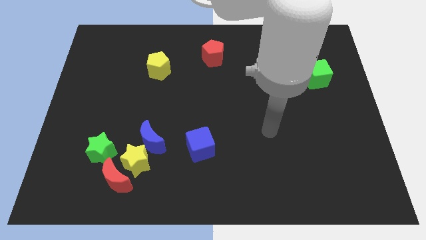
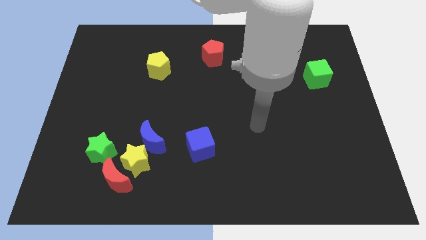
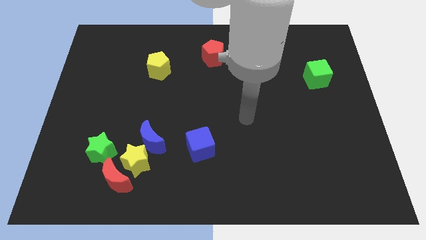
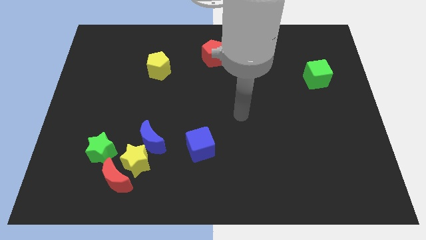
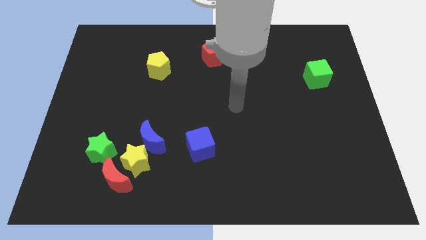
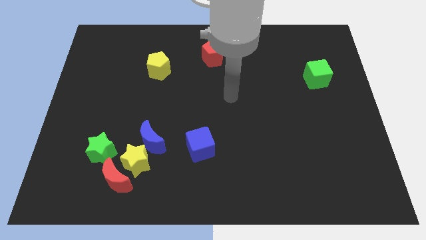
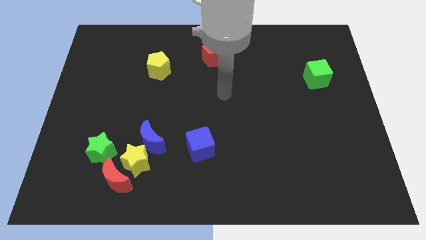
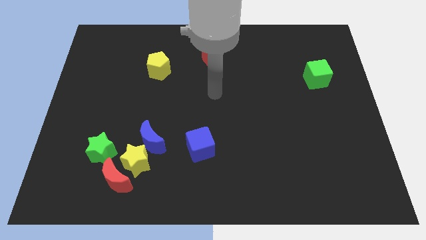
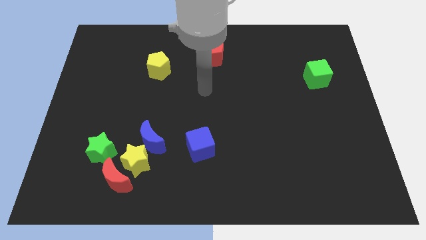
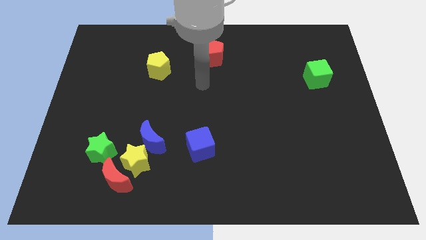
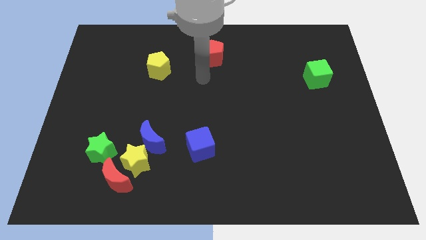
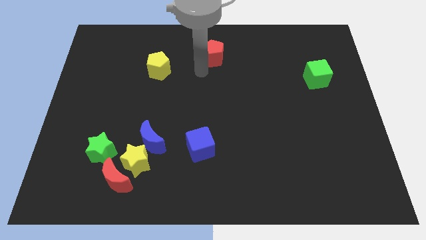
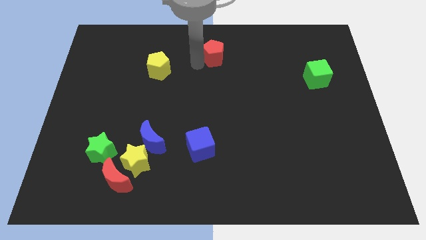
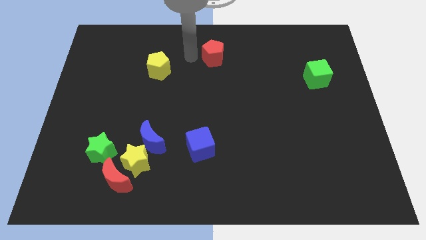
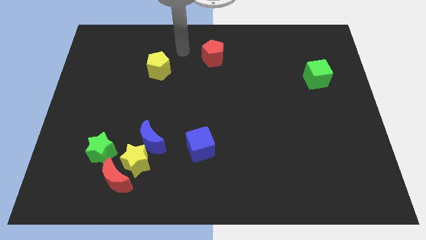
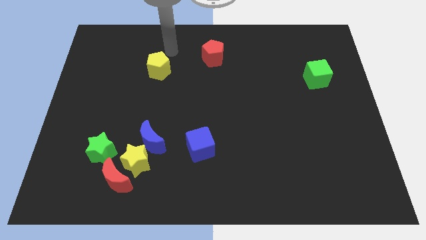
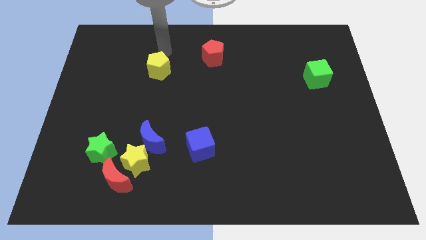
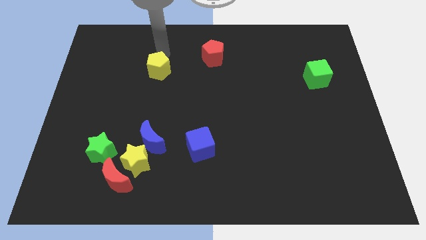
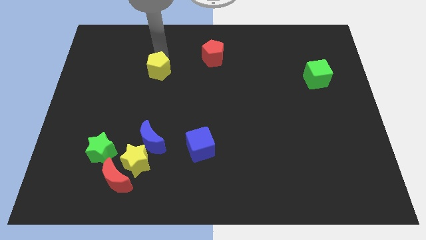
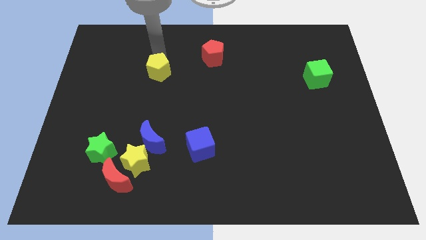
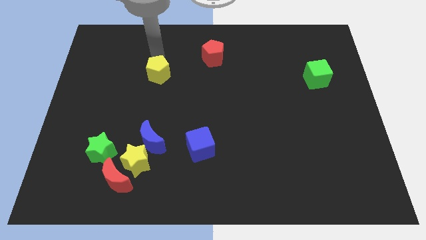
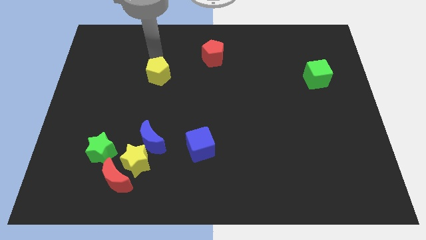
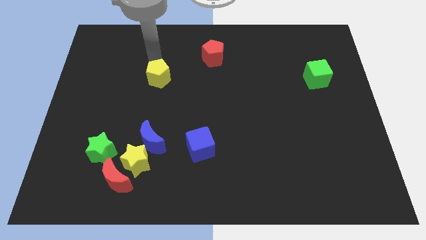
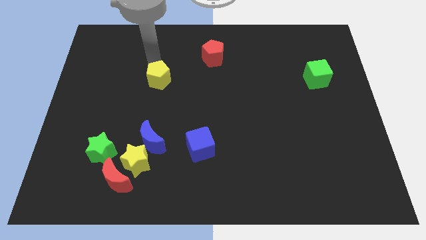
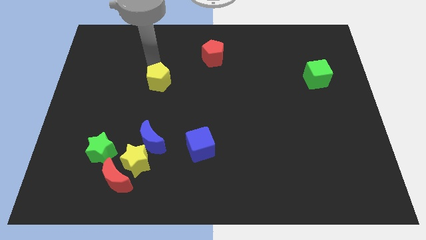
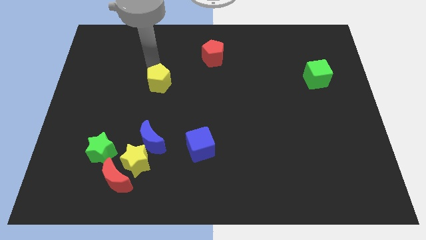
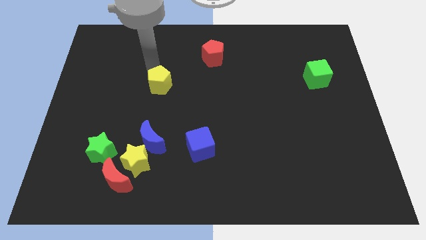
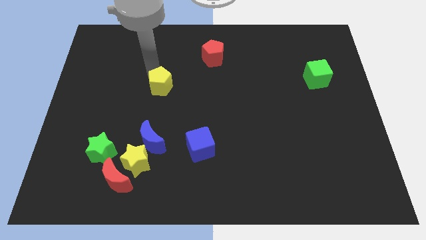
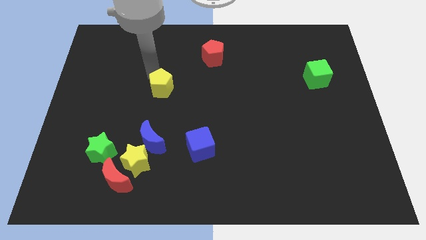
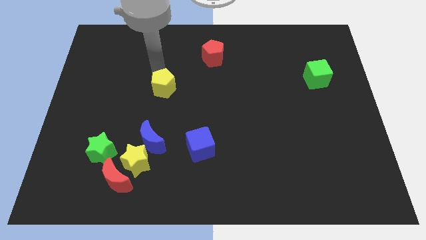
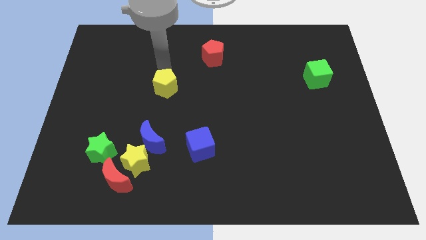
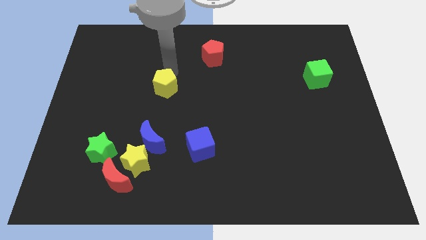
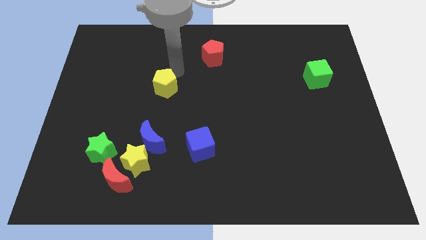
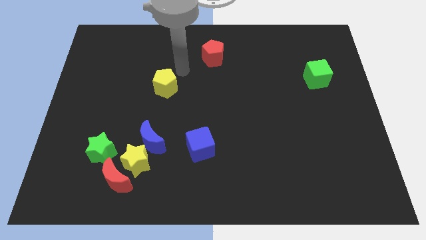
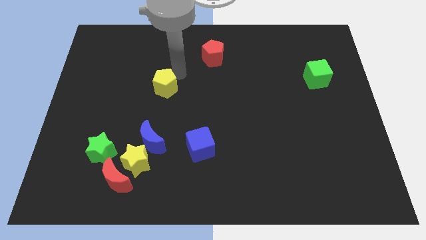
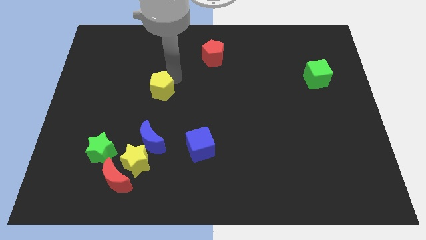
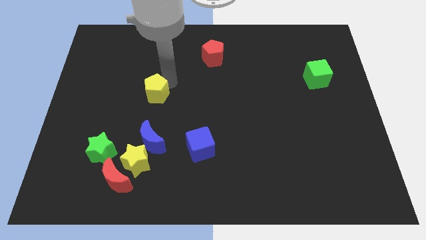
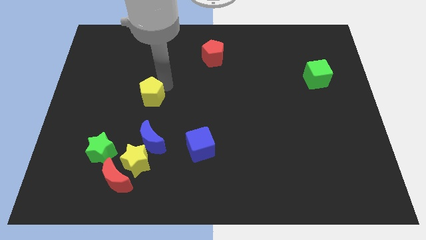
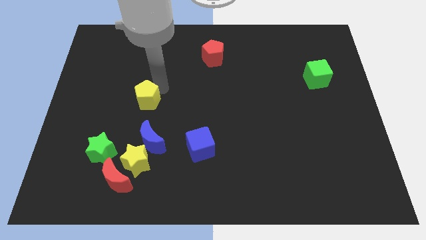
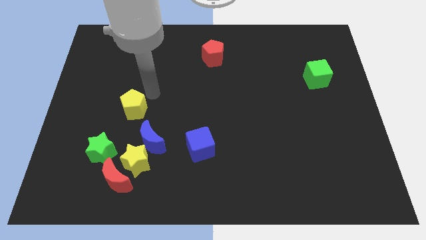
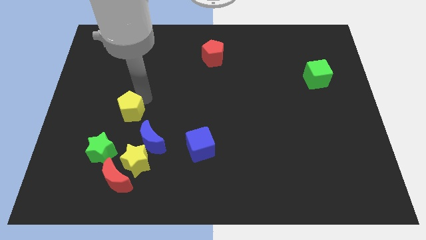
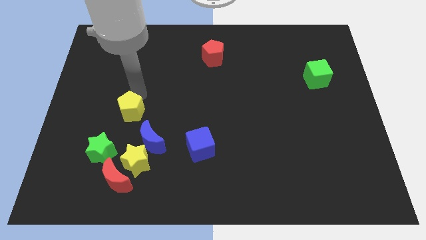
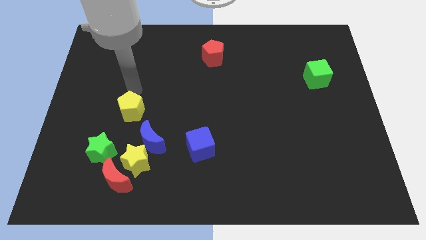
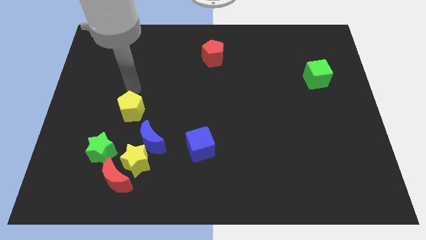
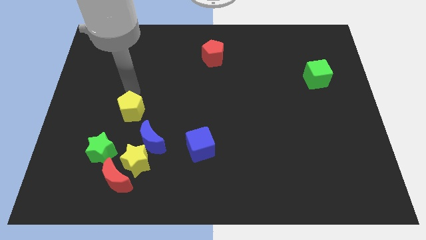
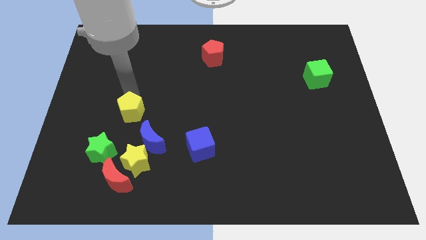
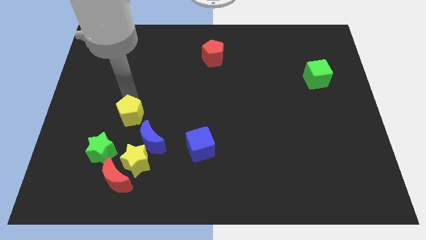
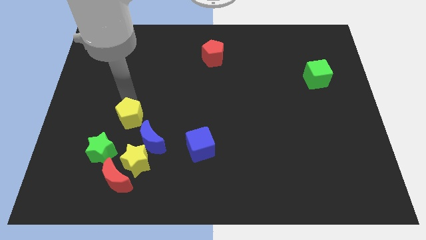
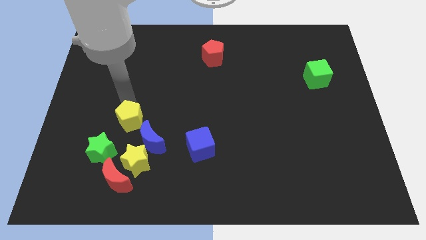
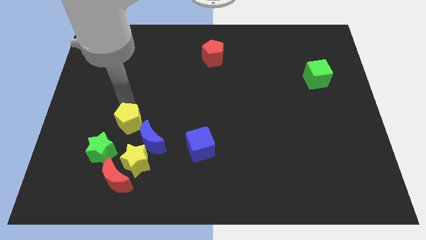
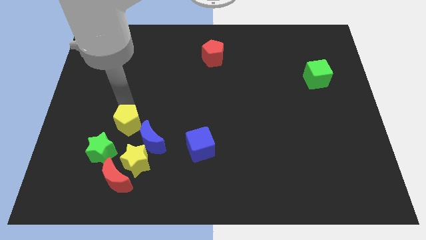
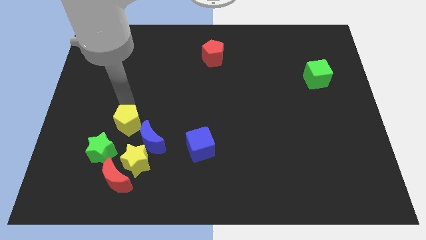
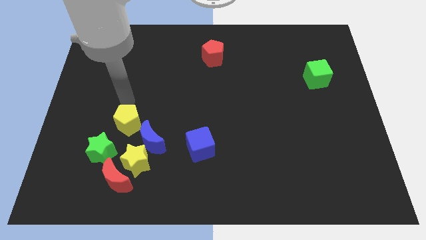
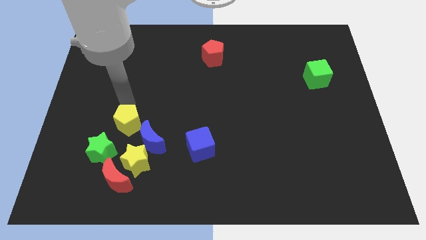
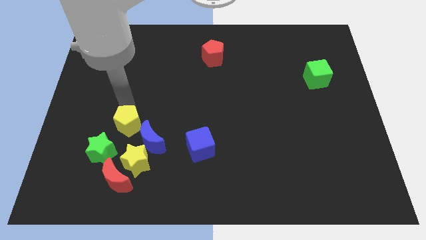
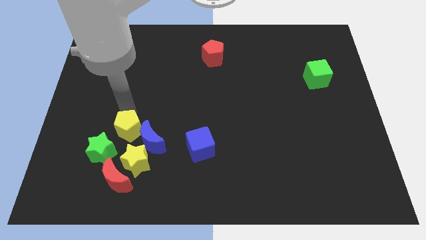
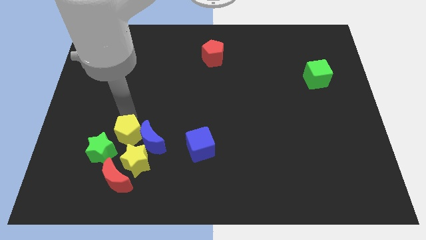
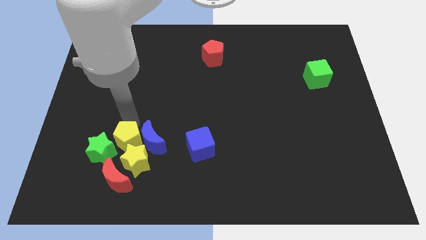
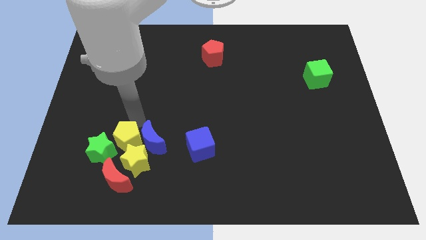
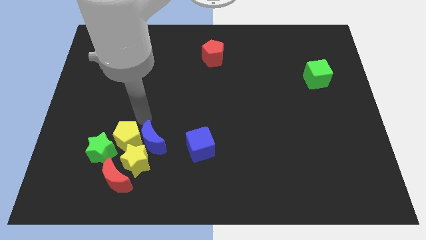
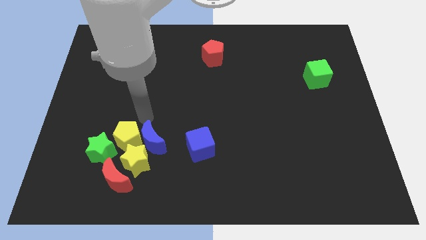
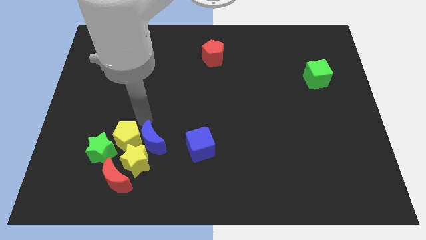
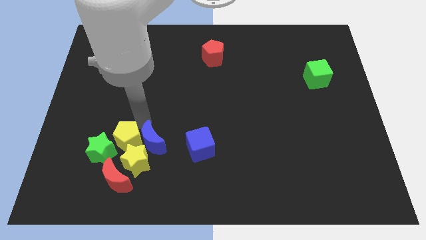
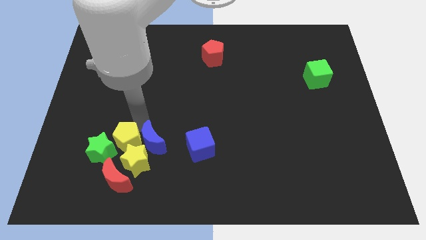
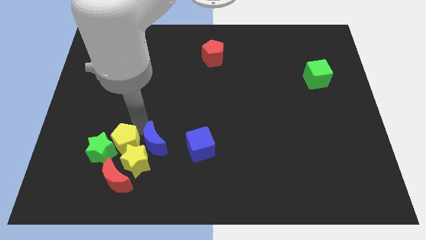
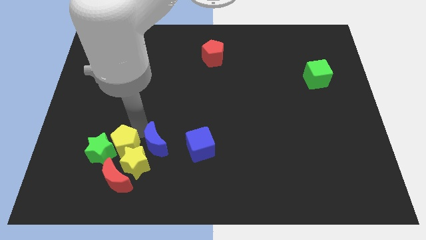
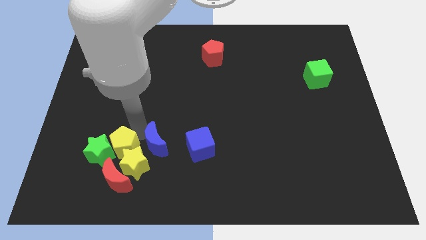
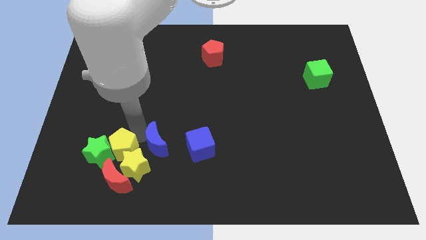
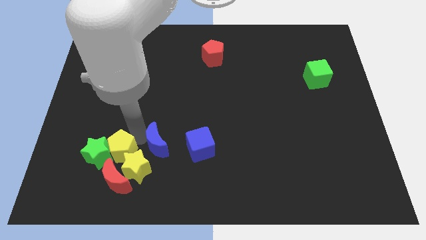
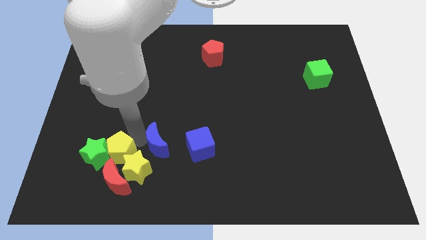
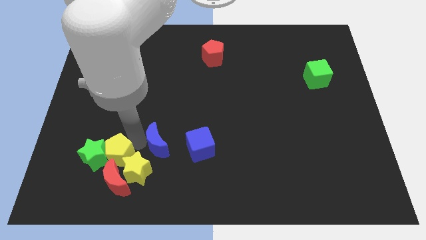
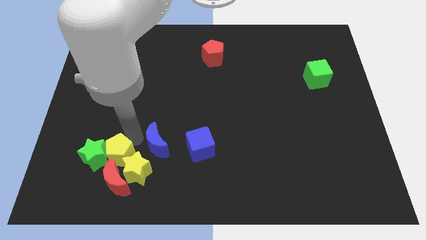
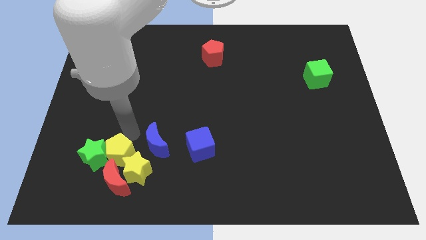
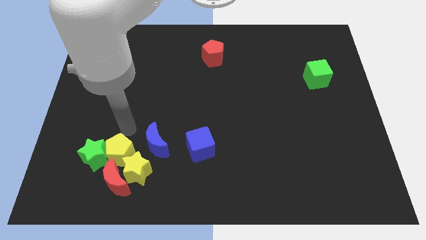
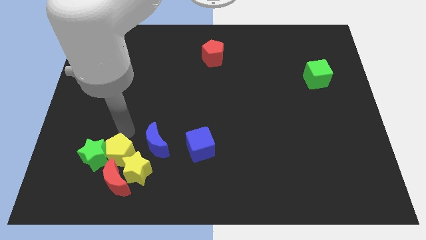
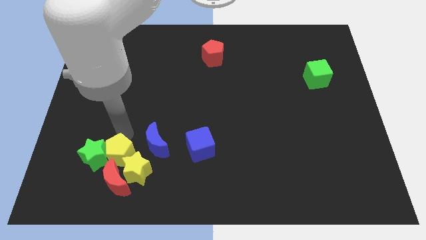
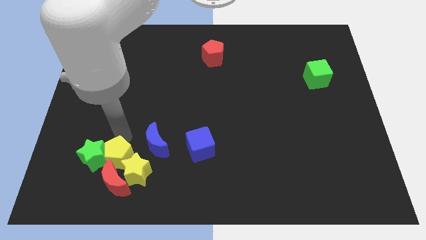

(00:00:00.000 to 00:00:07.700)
put the yellow pentagon towards the red moon
